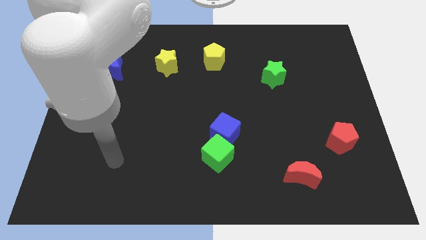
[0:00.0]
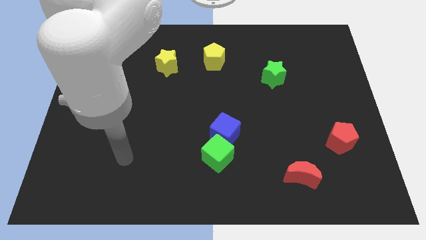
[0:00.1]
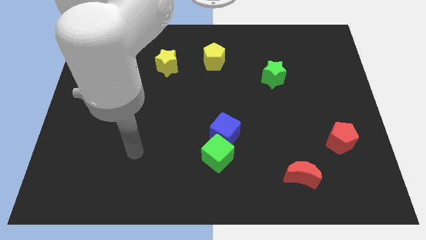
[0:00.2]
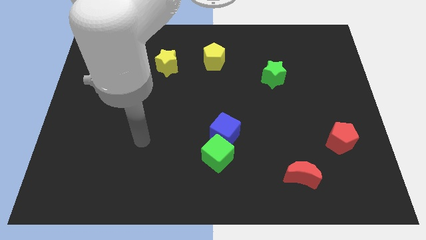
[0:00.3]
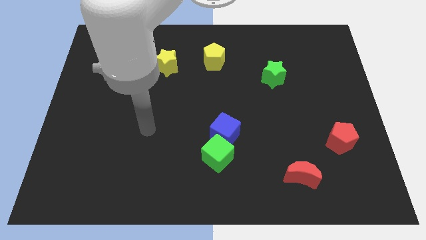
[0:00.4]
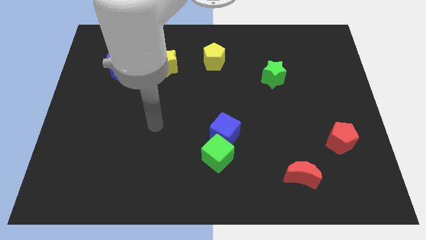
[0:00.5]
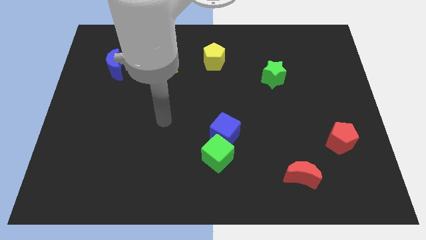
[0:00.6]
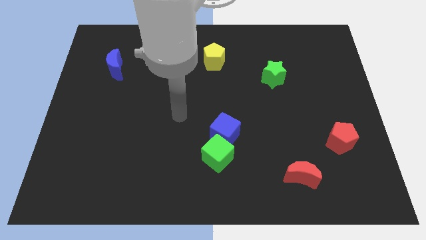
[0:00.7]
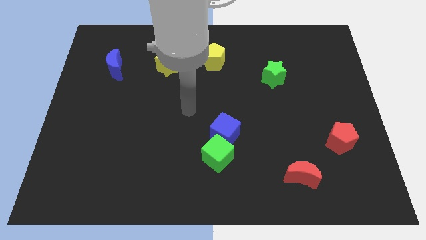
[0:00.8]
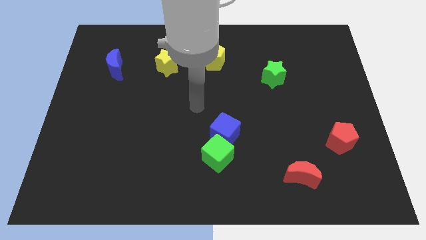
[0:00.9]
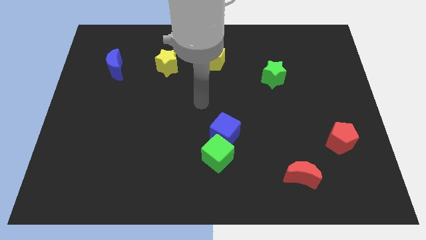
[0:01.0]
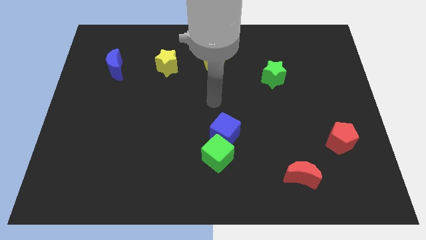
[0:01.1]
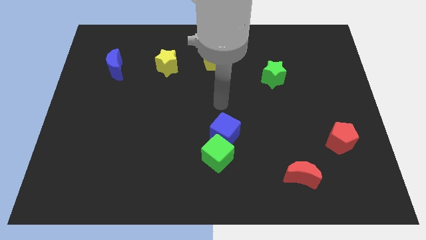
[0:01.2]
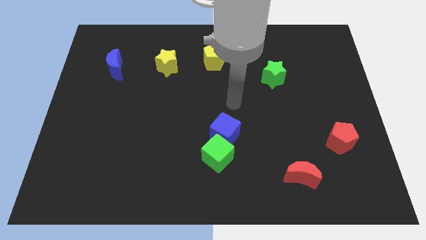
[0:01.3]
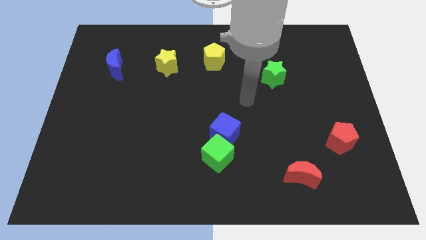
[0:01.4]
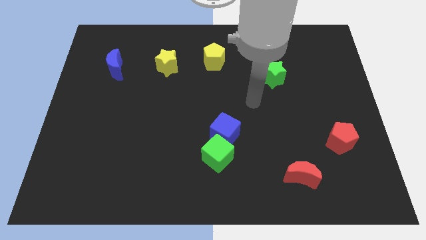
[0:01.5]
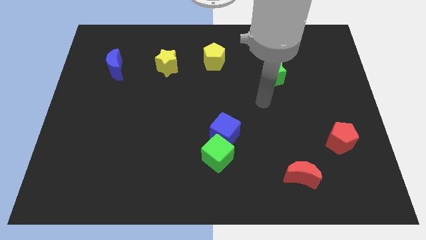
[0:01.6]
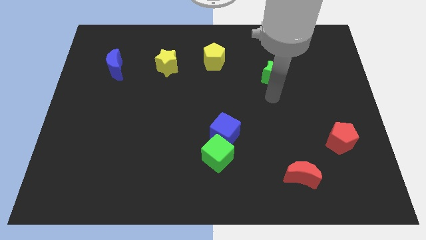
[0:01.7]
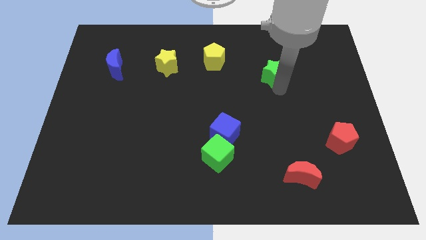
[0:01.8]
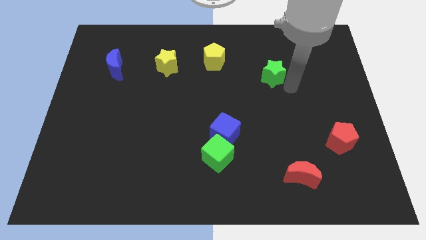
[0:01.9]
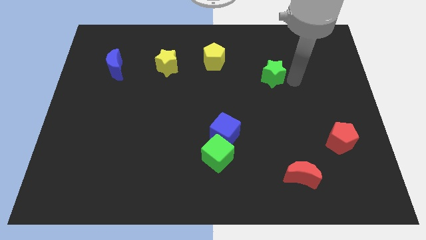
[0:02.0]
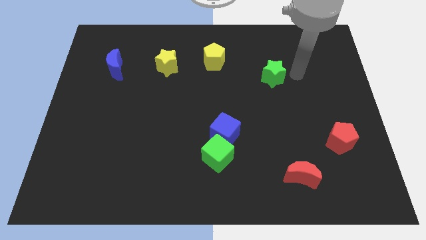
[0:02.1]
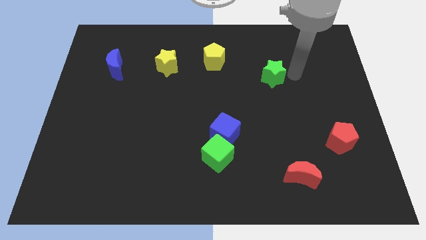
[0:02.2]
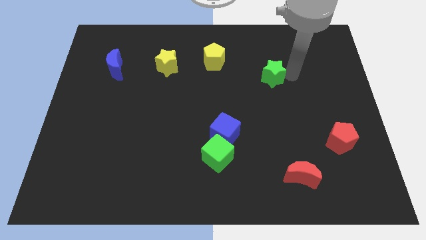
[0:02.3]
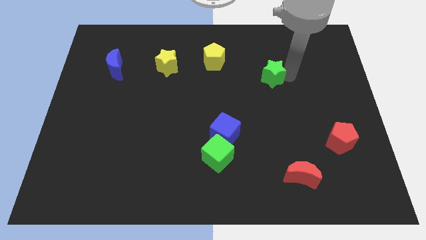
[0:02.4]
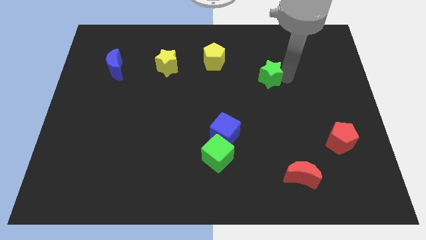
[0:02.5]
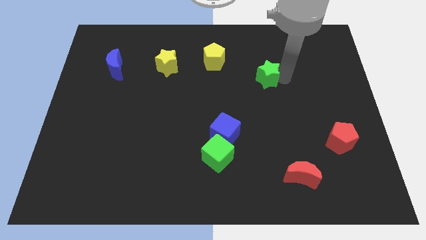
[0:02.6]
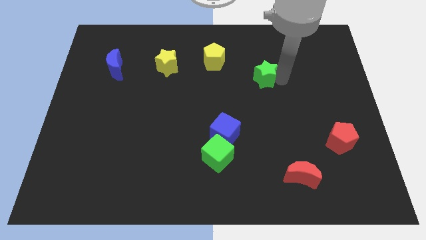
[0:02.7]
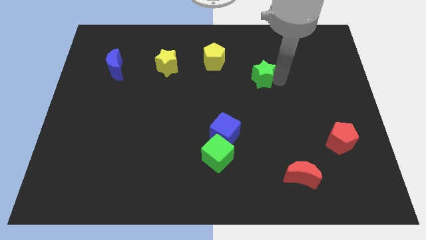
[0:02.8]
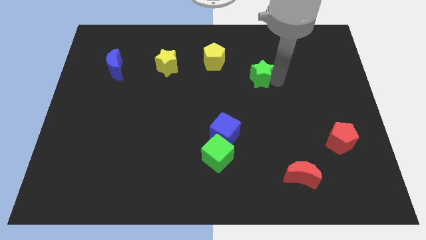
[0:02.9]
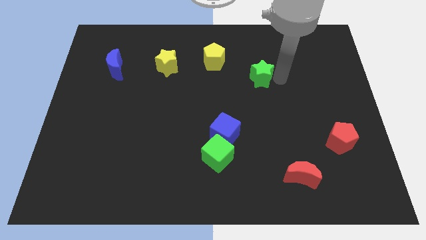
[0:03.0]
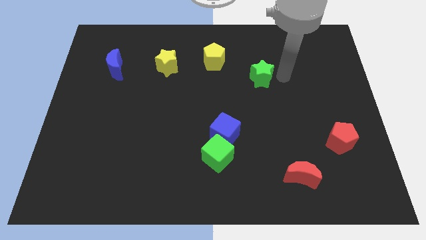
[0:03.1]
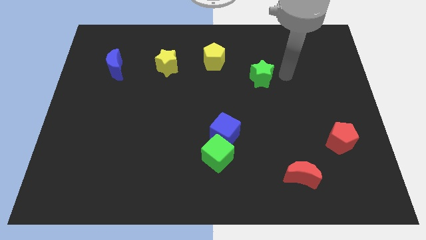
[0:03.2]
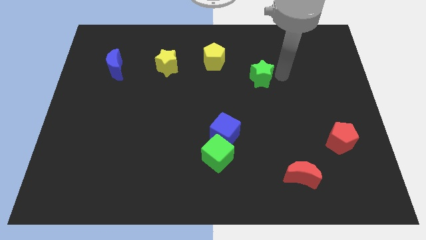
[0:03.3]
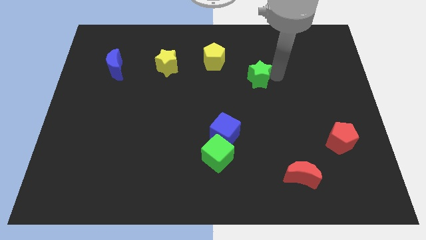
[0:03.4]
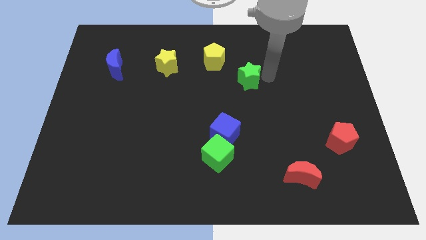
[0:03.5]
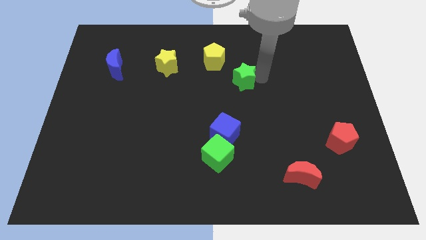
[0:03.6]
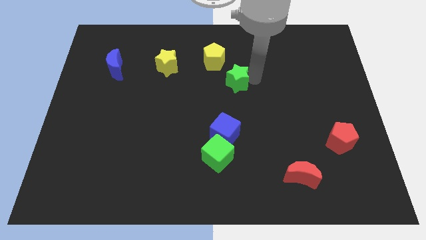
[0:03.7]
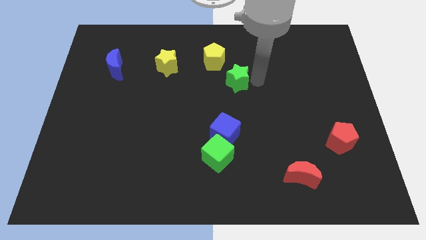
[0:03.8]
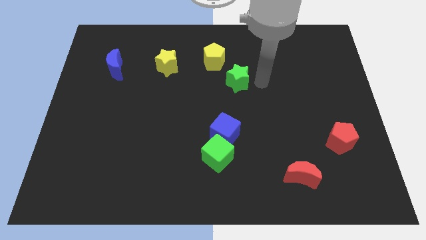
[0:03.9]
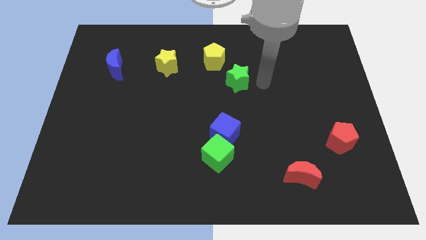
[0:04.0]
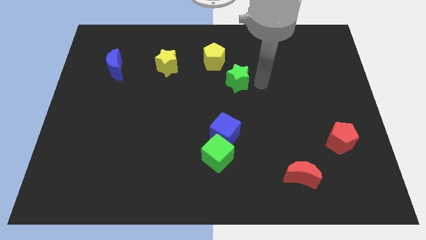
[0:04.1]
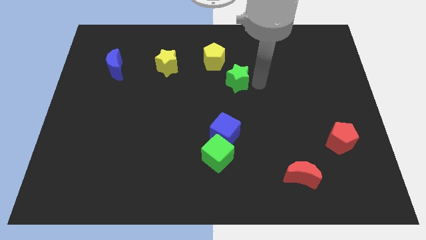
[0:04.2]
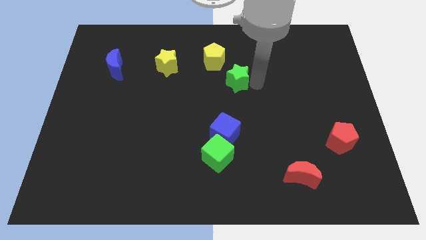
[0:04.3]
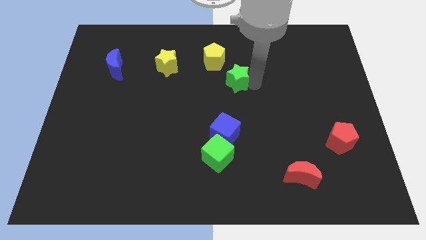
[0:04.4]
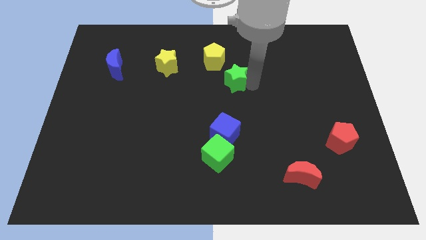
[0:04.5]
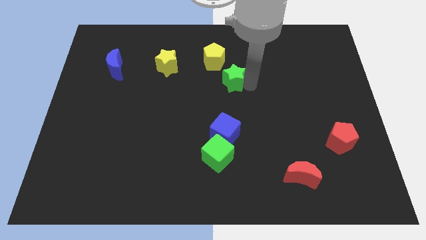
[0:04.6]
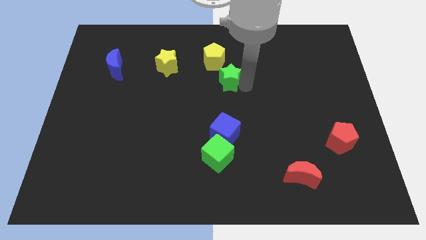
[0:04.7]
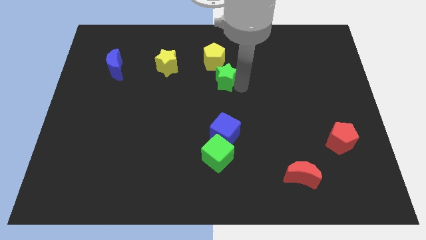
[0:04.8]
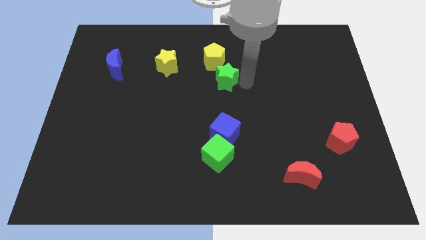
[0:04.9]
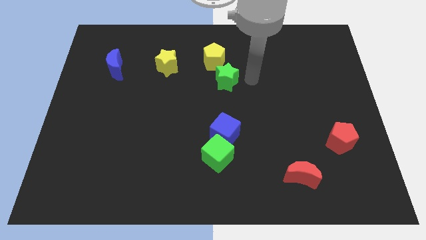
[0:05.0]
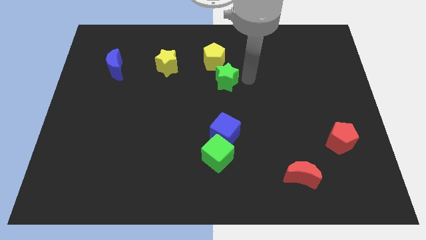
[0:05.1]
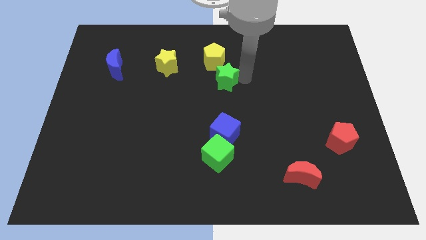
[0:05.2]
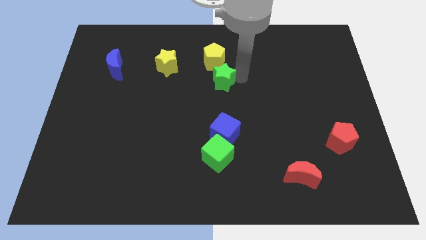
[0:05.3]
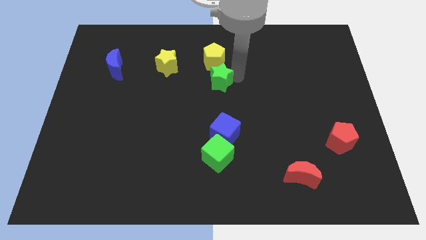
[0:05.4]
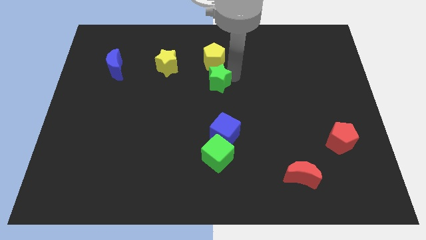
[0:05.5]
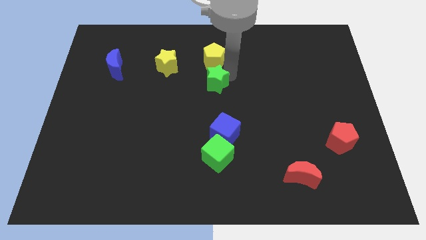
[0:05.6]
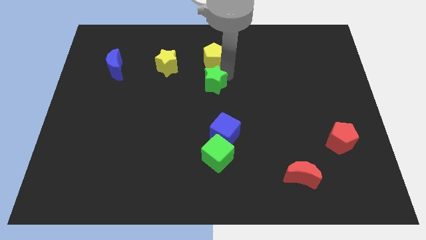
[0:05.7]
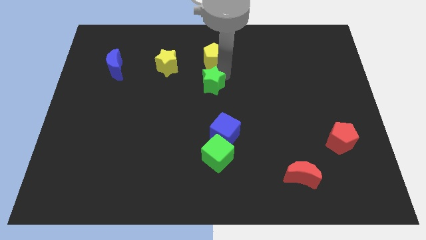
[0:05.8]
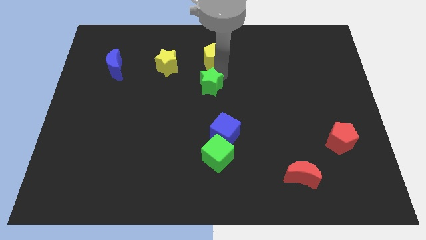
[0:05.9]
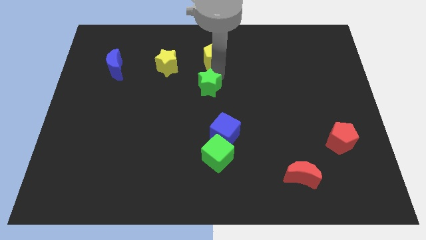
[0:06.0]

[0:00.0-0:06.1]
move the green star diagonally down and to the right of the yellow star
